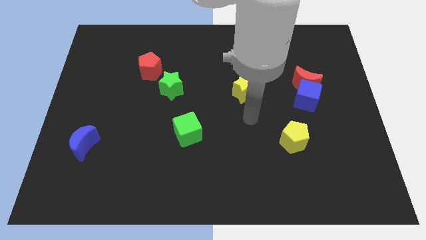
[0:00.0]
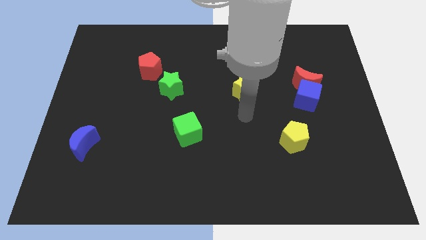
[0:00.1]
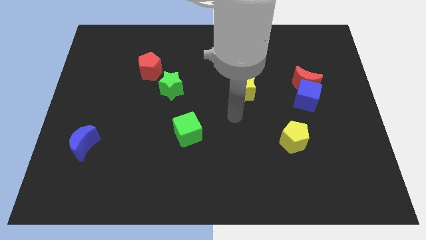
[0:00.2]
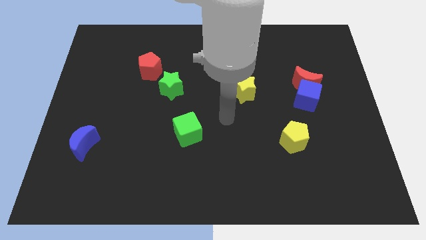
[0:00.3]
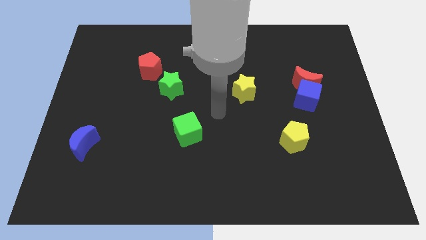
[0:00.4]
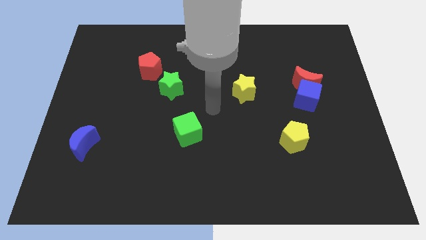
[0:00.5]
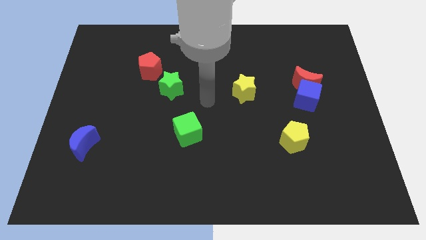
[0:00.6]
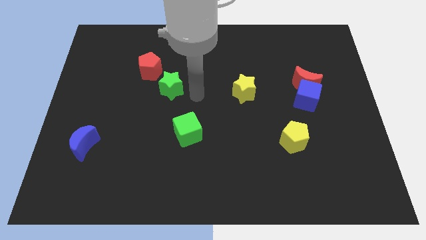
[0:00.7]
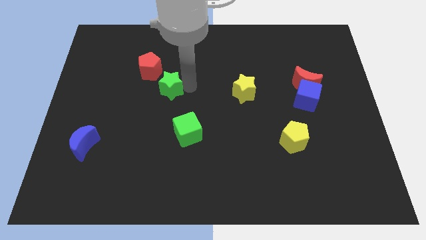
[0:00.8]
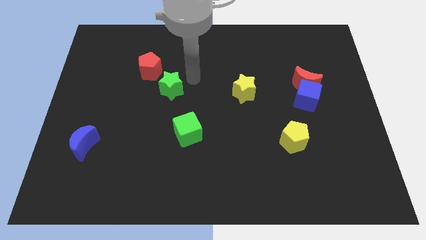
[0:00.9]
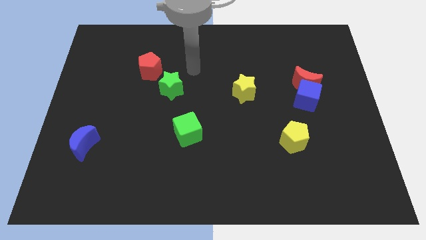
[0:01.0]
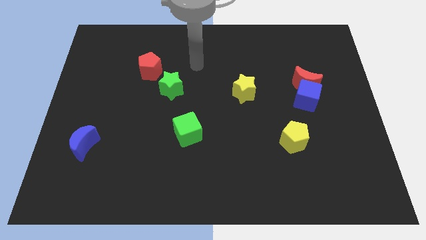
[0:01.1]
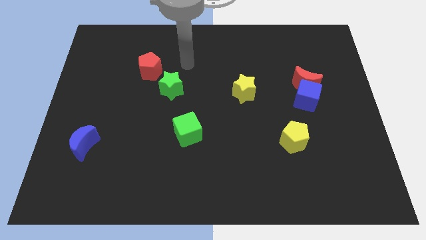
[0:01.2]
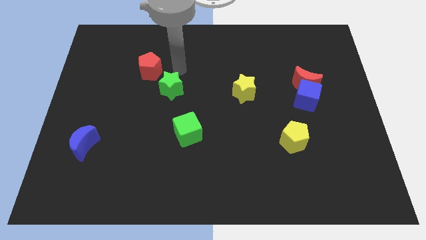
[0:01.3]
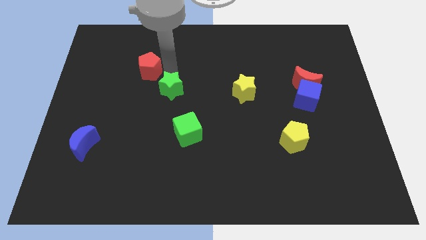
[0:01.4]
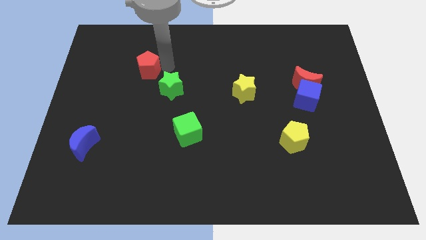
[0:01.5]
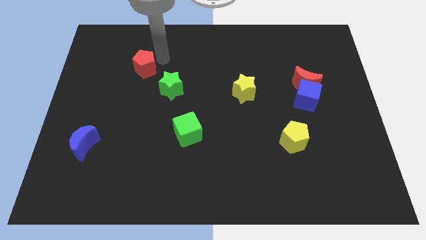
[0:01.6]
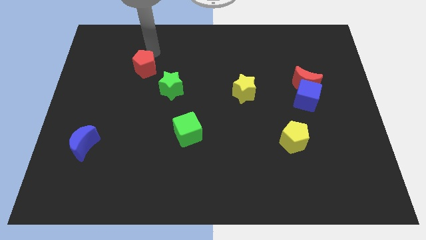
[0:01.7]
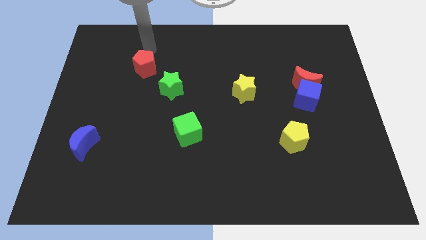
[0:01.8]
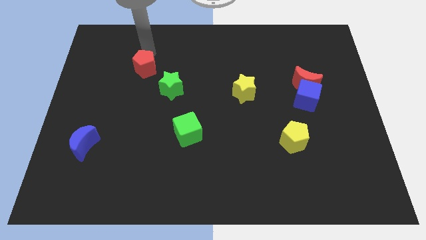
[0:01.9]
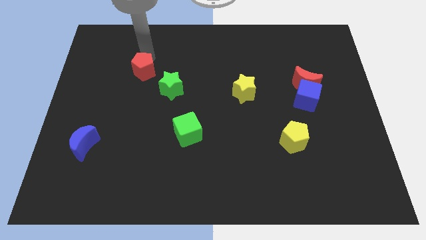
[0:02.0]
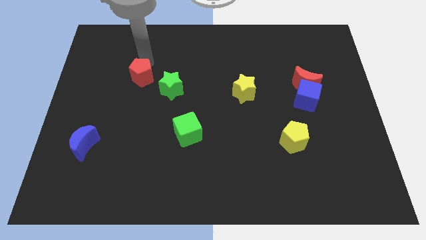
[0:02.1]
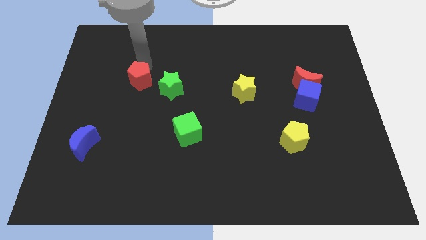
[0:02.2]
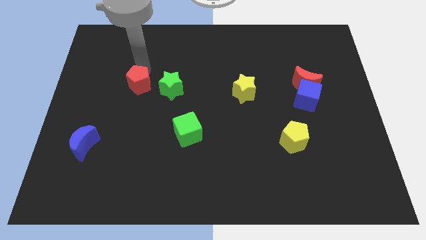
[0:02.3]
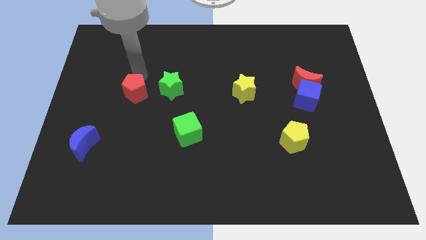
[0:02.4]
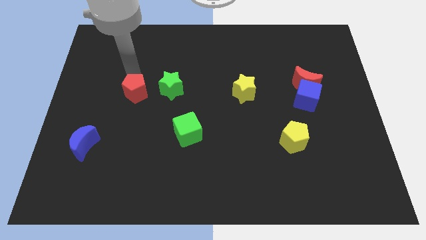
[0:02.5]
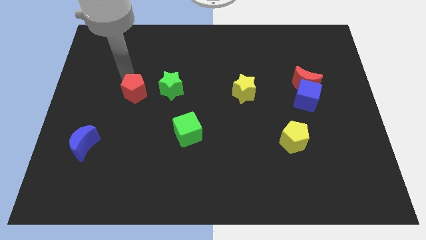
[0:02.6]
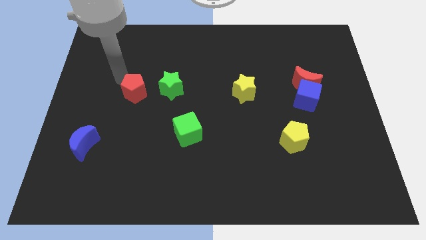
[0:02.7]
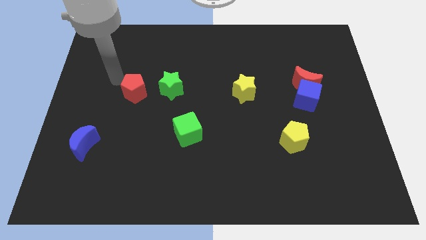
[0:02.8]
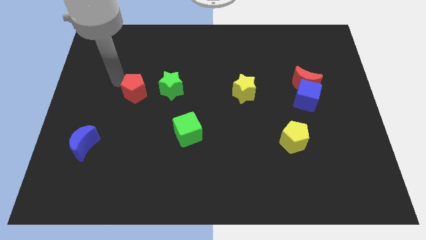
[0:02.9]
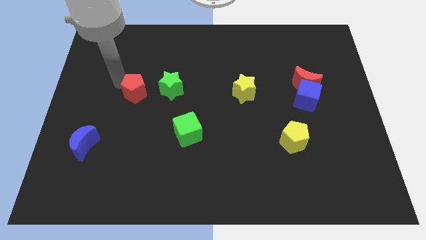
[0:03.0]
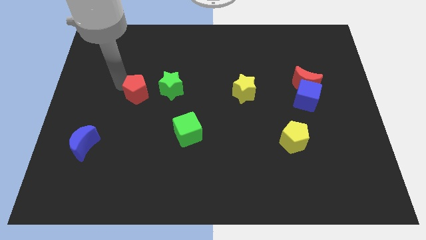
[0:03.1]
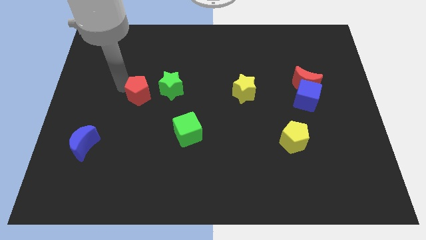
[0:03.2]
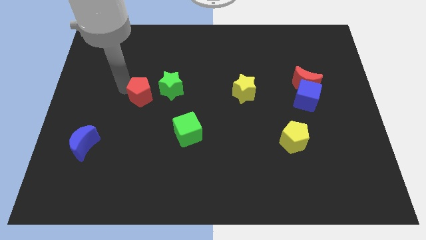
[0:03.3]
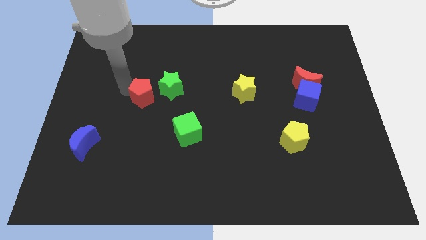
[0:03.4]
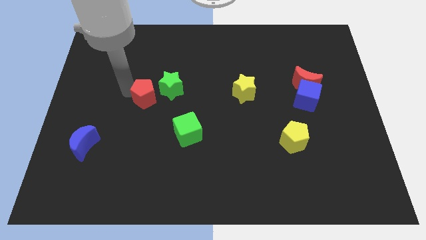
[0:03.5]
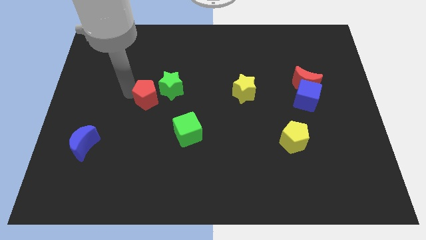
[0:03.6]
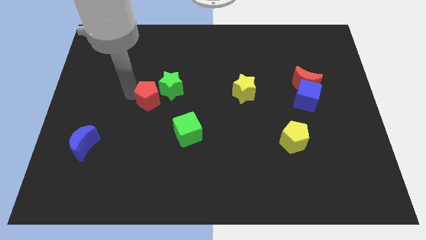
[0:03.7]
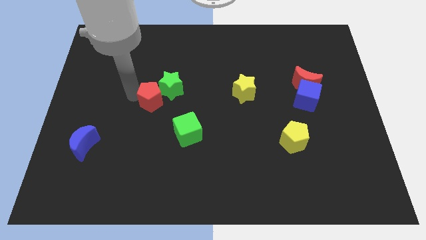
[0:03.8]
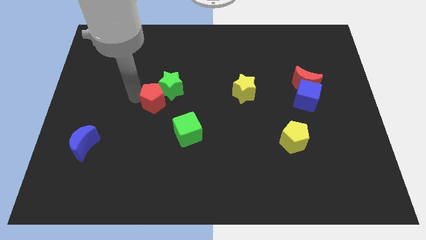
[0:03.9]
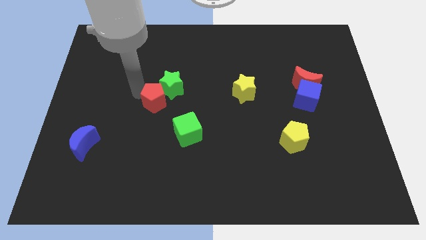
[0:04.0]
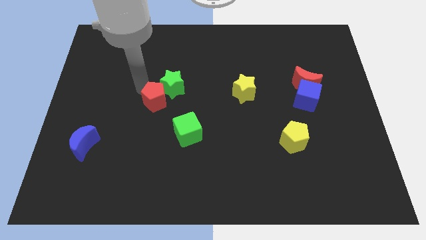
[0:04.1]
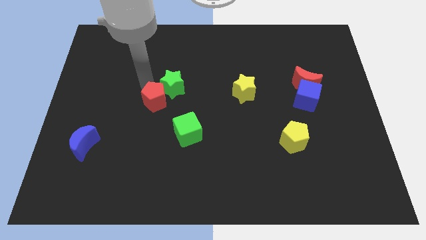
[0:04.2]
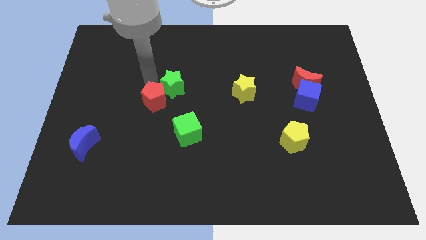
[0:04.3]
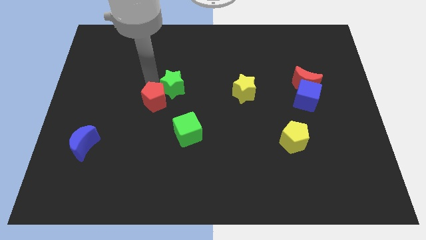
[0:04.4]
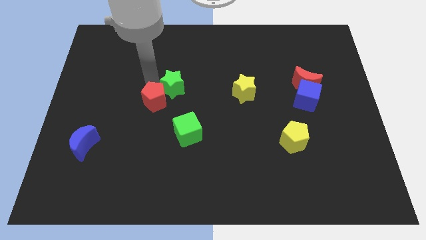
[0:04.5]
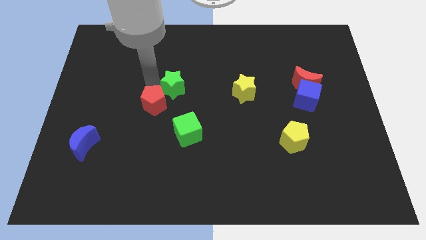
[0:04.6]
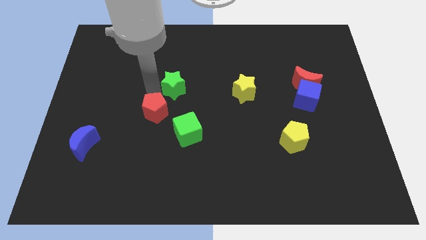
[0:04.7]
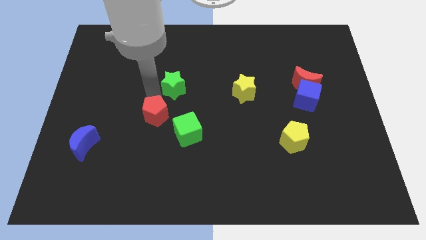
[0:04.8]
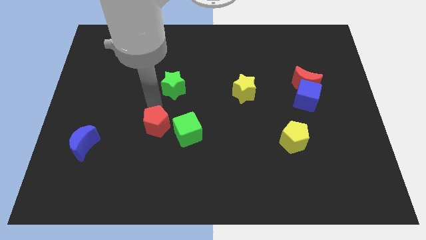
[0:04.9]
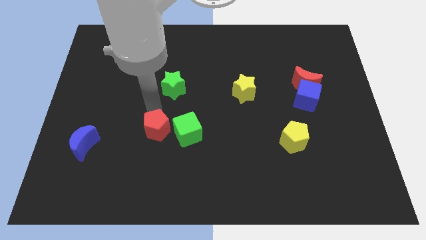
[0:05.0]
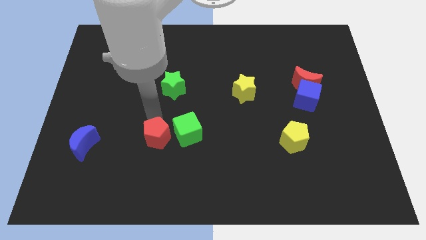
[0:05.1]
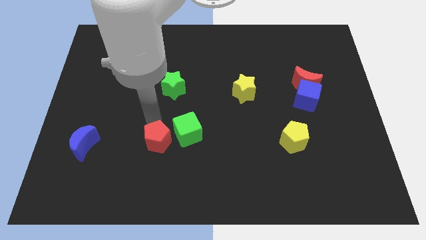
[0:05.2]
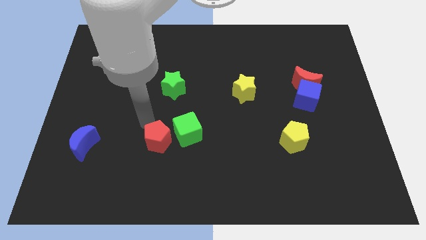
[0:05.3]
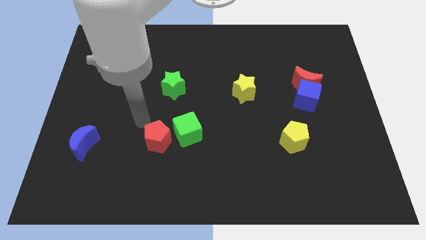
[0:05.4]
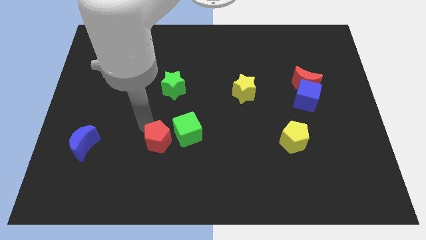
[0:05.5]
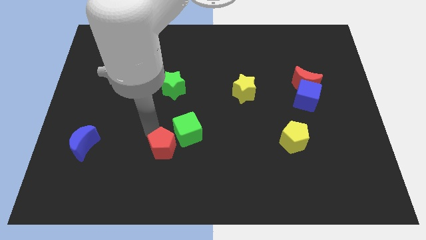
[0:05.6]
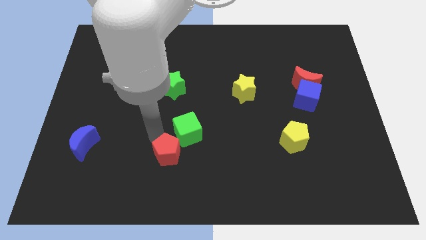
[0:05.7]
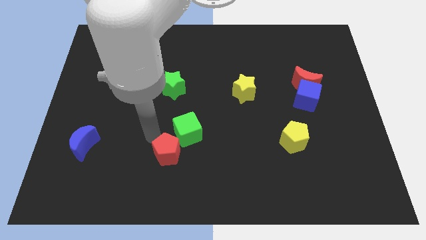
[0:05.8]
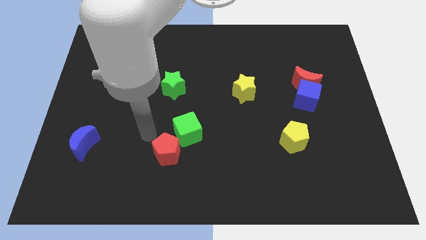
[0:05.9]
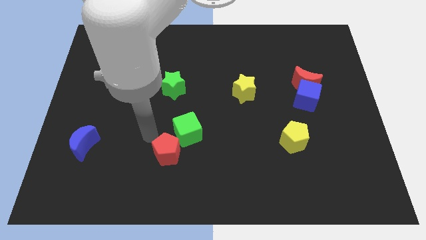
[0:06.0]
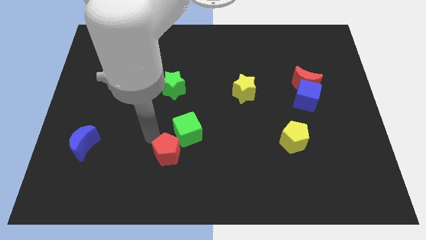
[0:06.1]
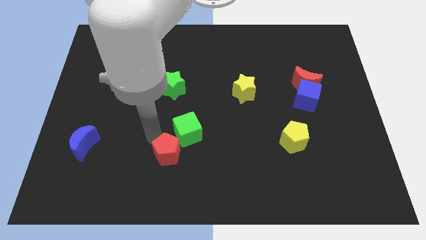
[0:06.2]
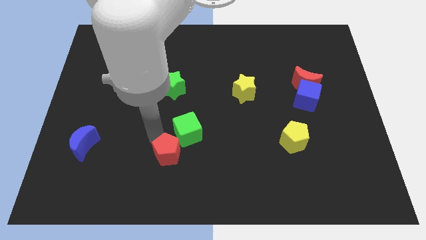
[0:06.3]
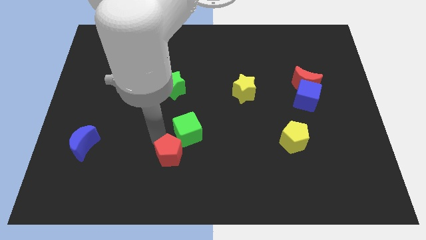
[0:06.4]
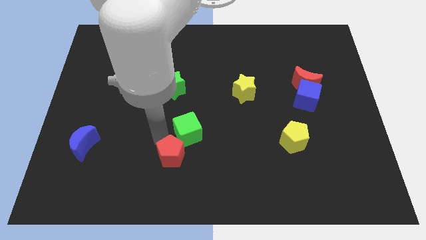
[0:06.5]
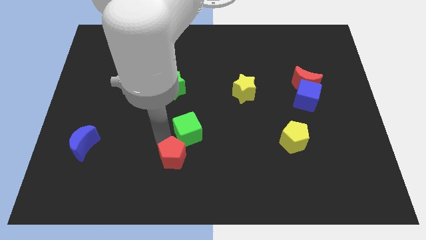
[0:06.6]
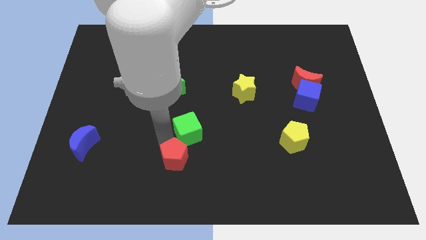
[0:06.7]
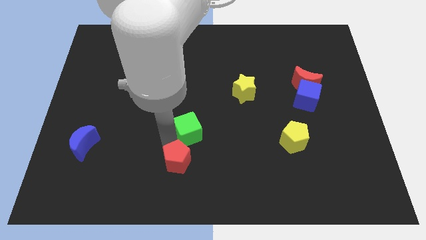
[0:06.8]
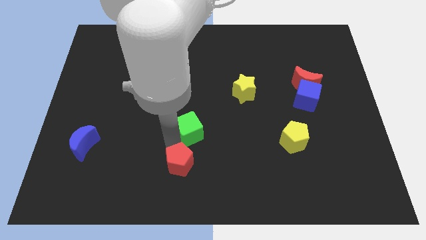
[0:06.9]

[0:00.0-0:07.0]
move the red pentagon to the bottom side
